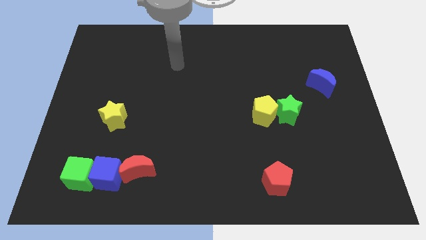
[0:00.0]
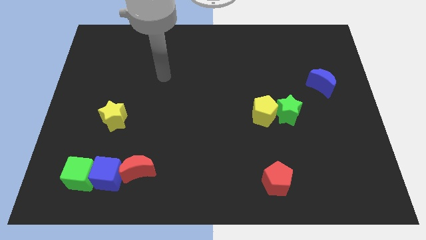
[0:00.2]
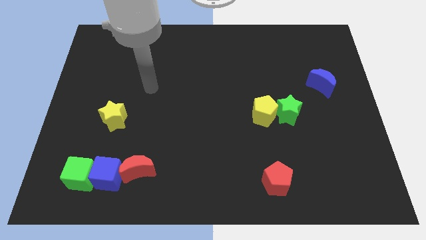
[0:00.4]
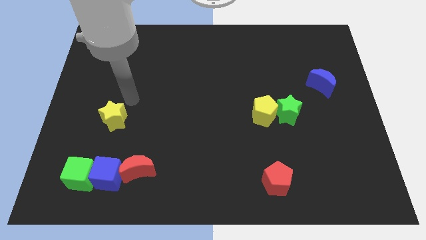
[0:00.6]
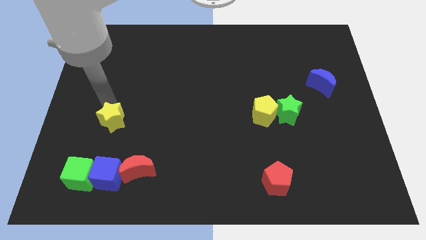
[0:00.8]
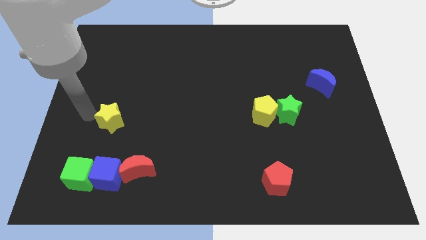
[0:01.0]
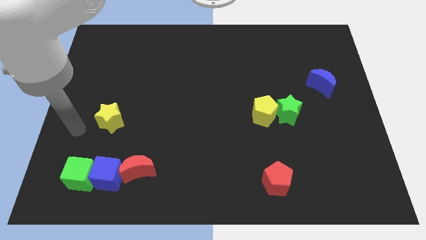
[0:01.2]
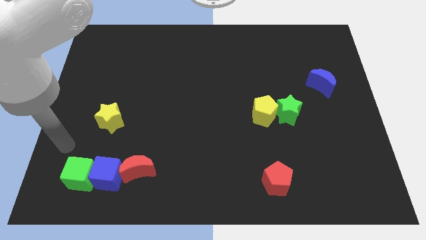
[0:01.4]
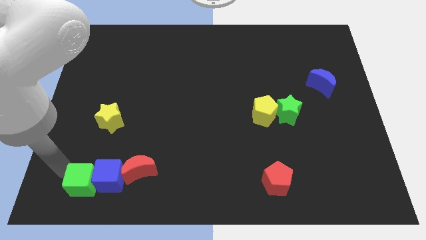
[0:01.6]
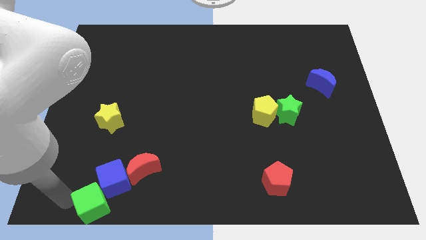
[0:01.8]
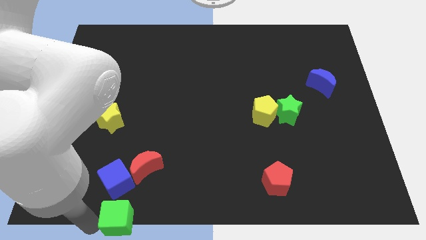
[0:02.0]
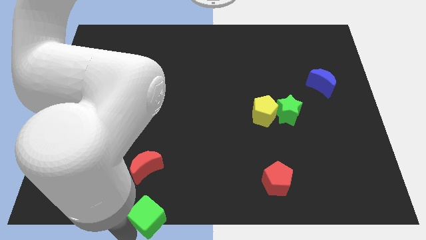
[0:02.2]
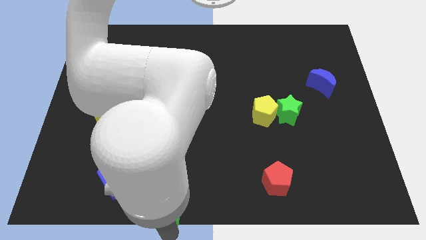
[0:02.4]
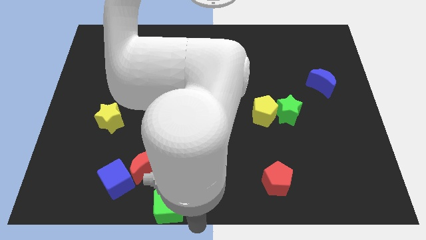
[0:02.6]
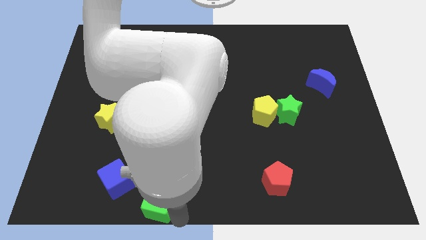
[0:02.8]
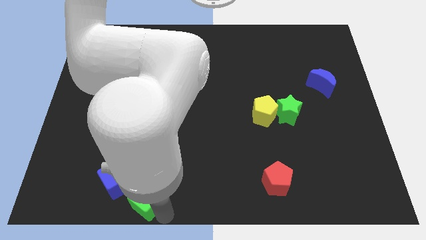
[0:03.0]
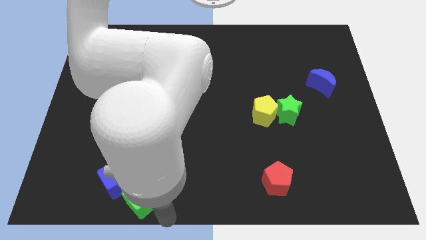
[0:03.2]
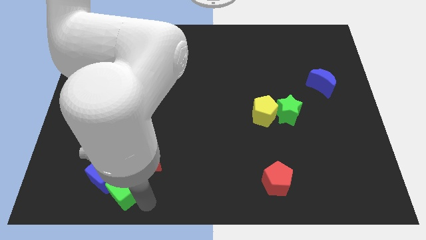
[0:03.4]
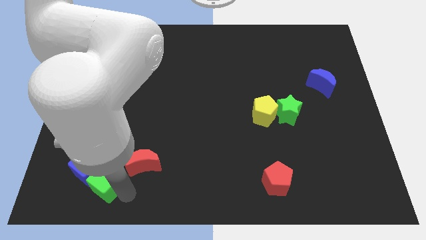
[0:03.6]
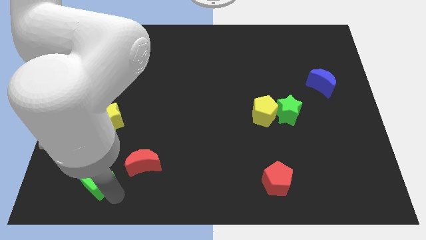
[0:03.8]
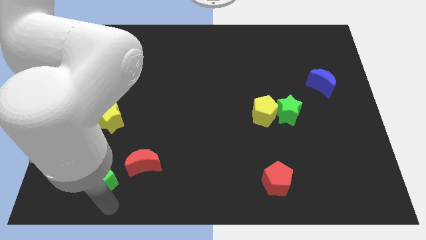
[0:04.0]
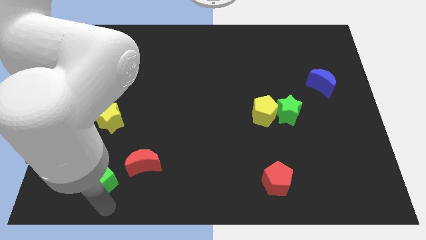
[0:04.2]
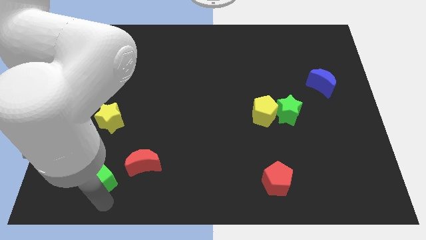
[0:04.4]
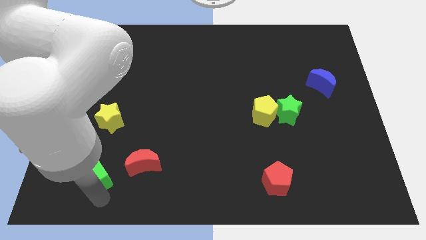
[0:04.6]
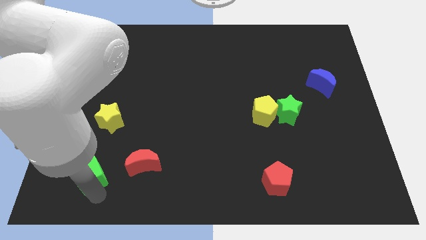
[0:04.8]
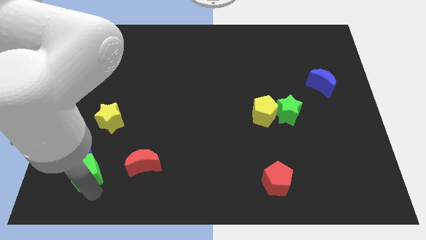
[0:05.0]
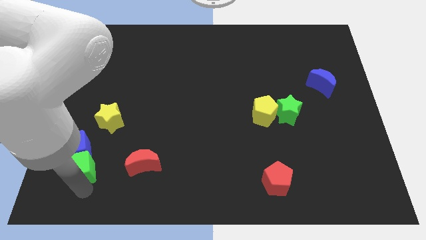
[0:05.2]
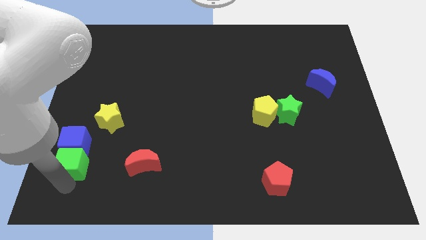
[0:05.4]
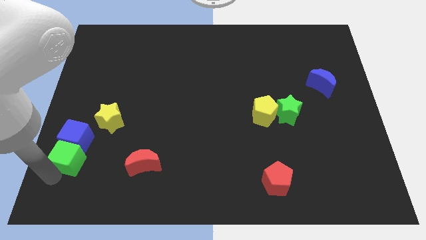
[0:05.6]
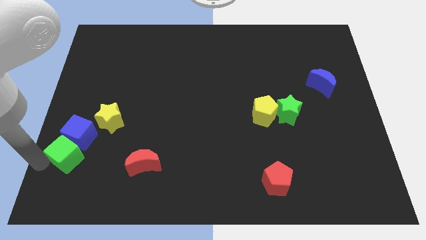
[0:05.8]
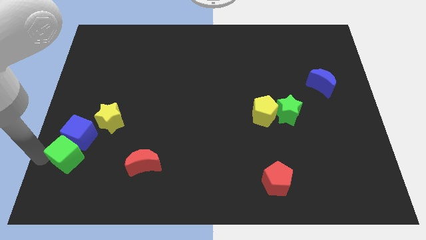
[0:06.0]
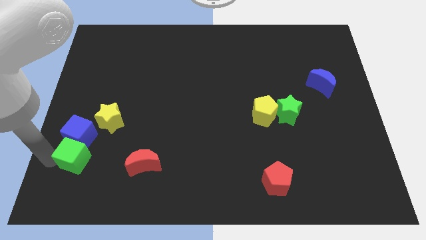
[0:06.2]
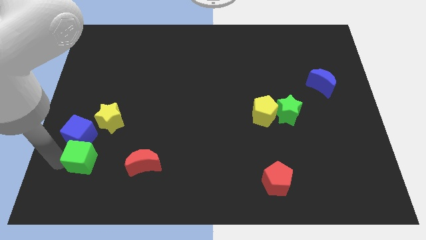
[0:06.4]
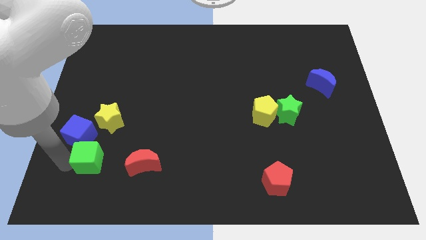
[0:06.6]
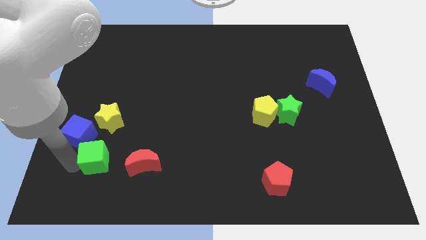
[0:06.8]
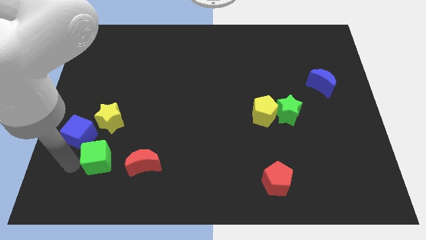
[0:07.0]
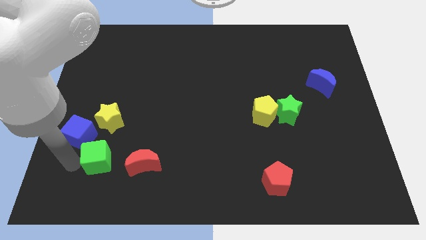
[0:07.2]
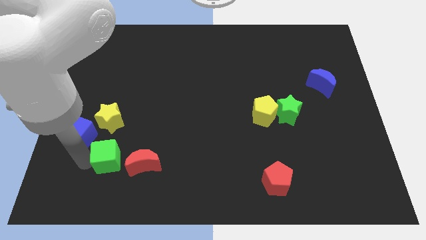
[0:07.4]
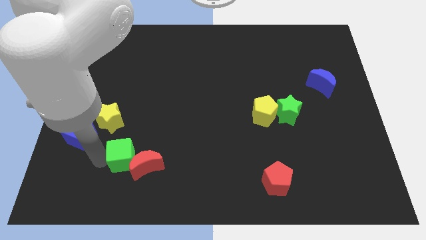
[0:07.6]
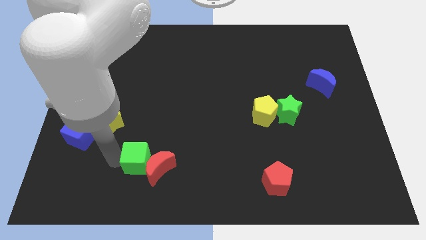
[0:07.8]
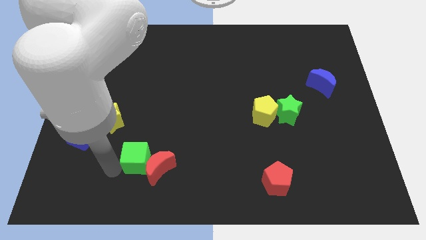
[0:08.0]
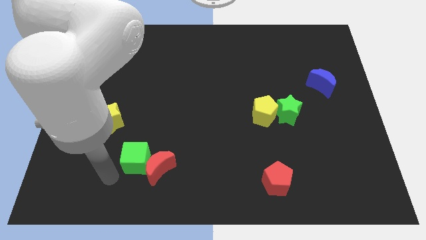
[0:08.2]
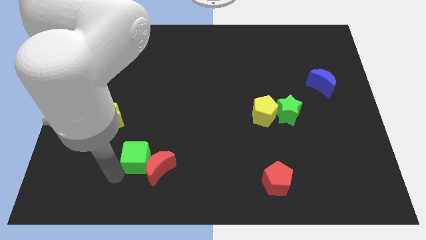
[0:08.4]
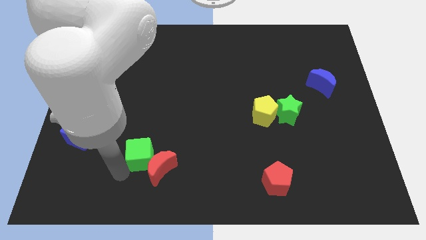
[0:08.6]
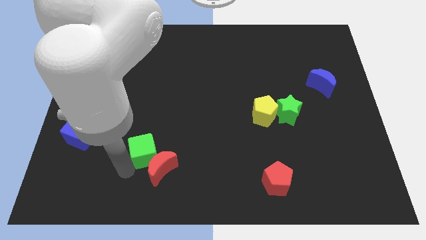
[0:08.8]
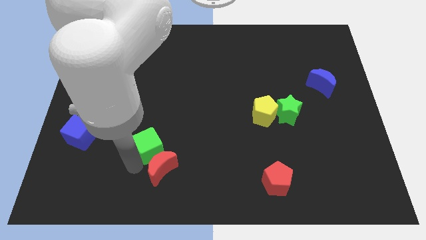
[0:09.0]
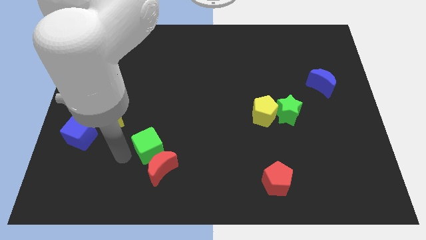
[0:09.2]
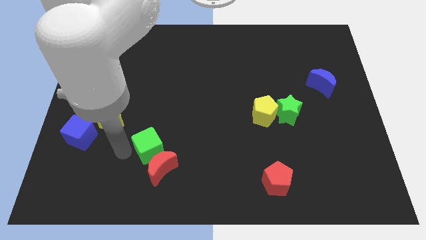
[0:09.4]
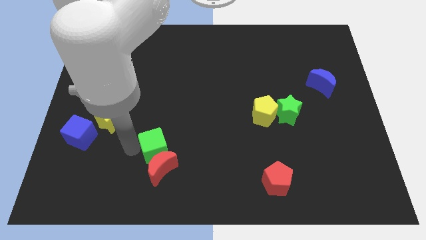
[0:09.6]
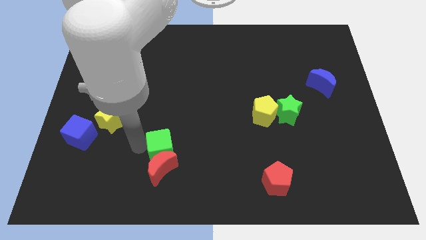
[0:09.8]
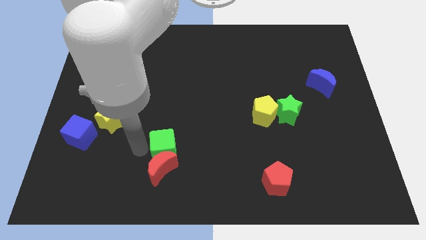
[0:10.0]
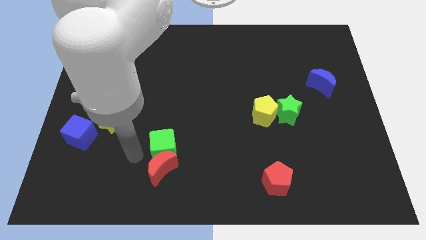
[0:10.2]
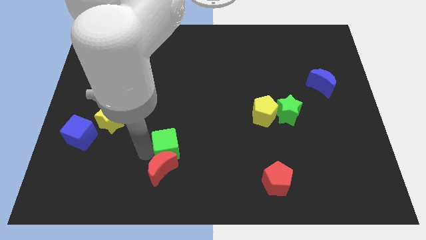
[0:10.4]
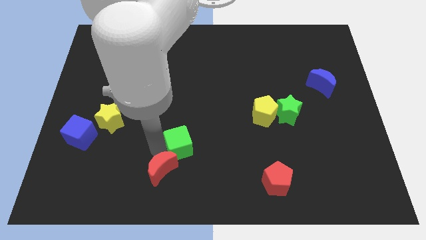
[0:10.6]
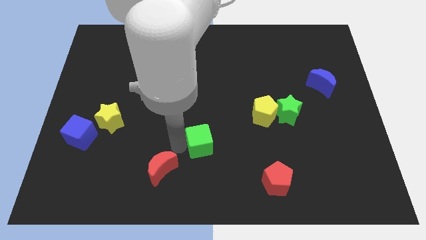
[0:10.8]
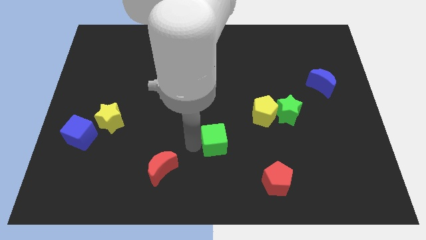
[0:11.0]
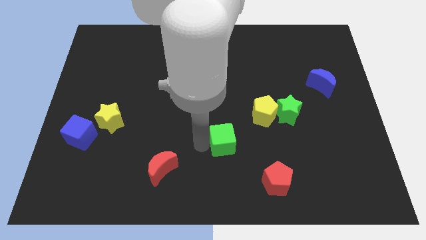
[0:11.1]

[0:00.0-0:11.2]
move the green cube to the bottom left side of the yellow pentagon

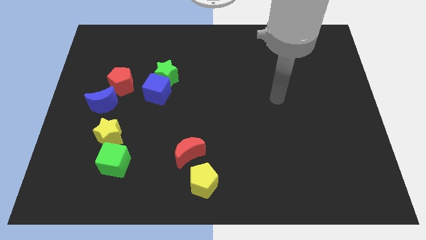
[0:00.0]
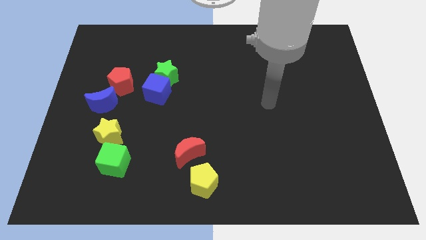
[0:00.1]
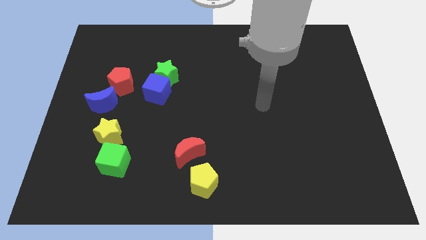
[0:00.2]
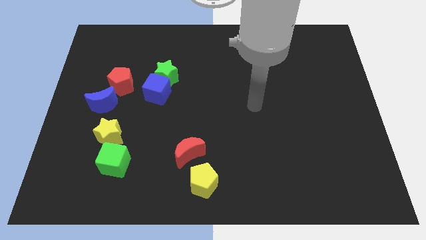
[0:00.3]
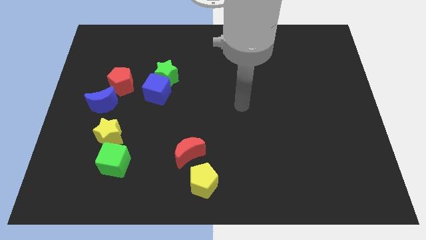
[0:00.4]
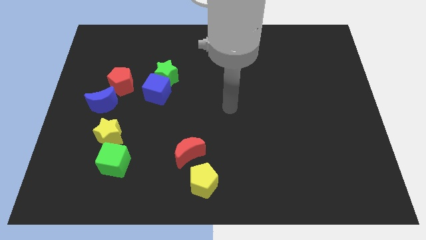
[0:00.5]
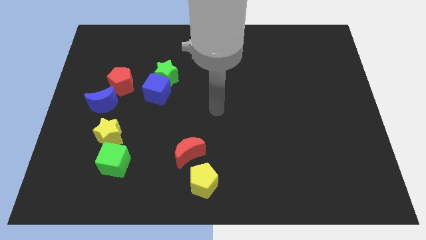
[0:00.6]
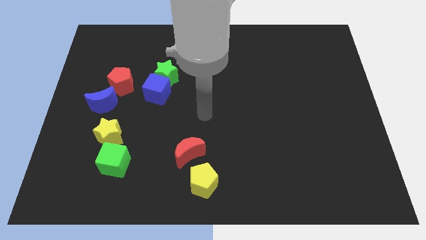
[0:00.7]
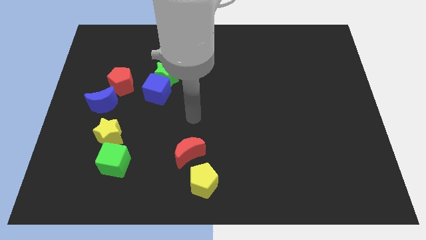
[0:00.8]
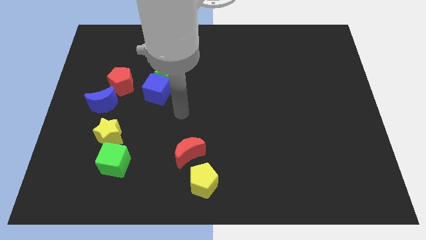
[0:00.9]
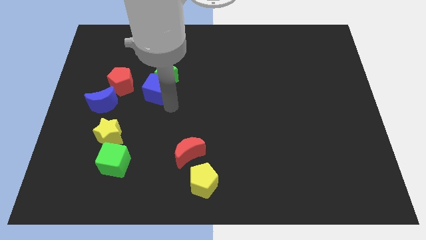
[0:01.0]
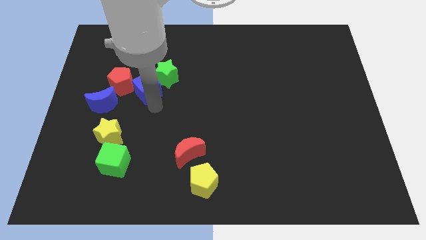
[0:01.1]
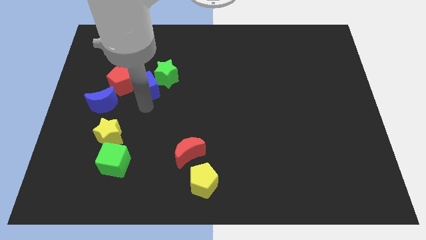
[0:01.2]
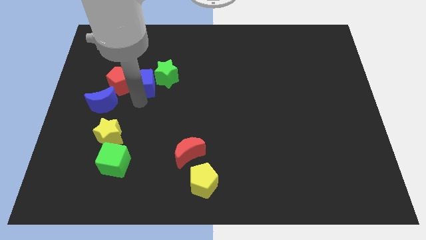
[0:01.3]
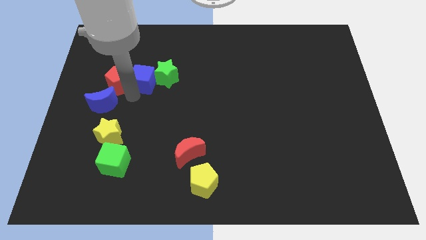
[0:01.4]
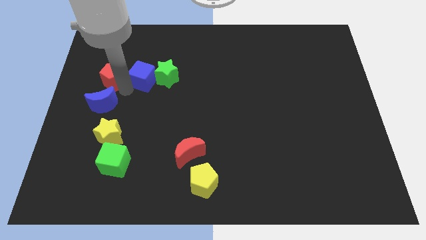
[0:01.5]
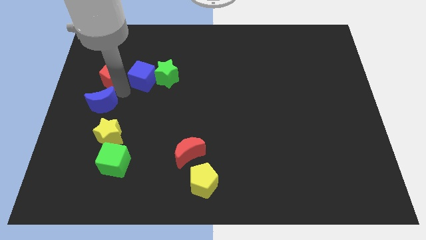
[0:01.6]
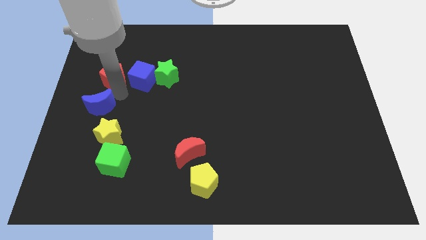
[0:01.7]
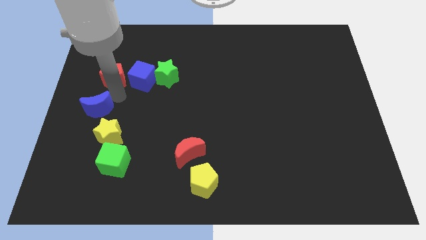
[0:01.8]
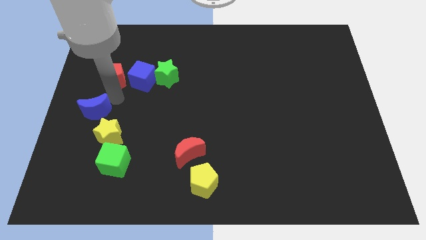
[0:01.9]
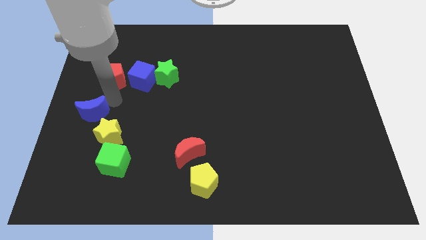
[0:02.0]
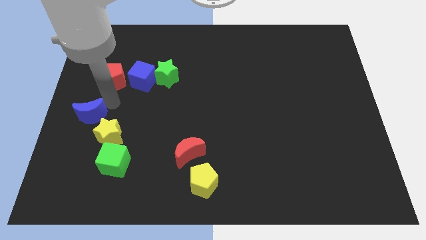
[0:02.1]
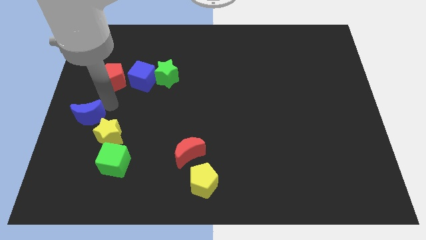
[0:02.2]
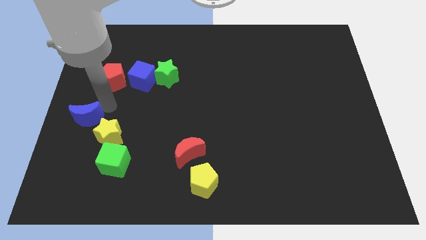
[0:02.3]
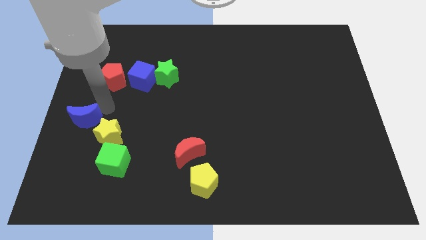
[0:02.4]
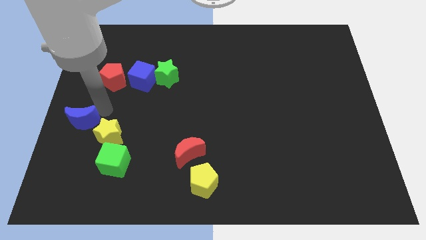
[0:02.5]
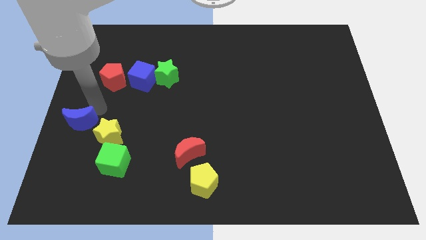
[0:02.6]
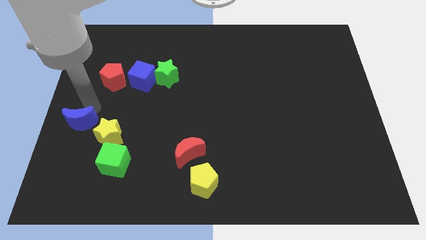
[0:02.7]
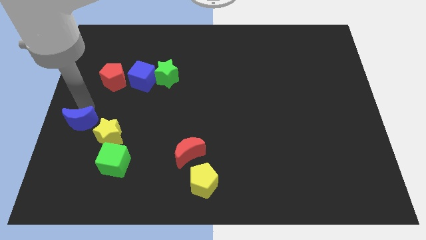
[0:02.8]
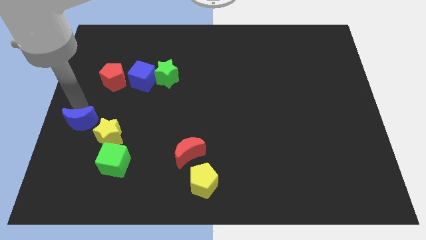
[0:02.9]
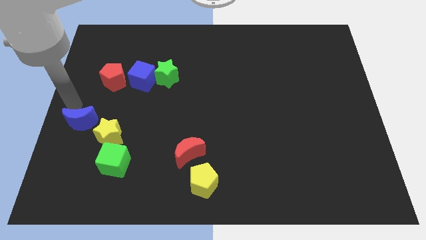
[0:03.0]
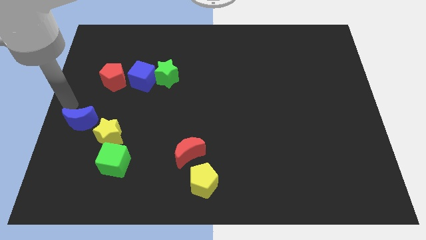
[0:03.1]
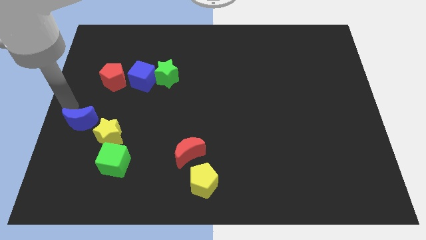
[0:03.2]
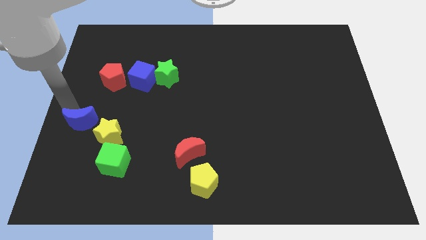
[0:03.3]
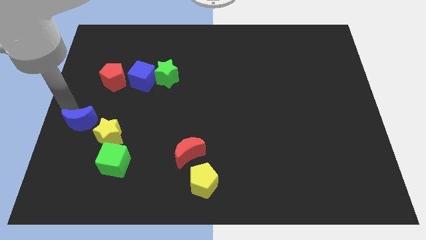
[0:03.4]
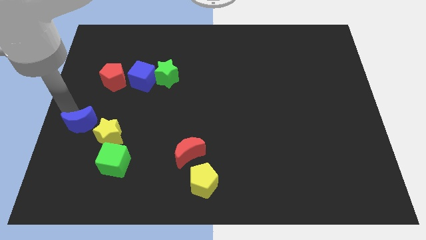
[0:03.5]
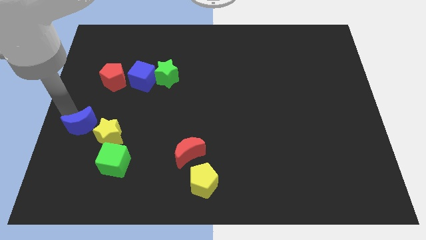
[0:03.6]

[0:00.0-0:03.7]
slide the blue moon to the top left of the green cube
